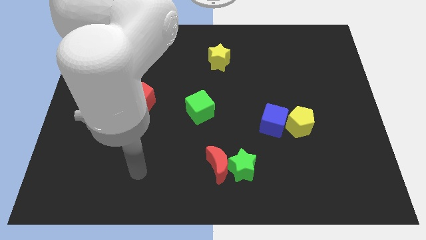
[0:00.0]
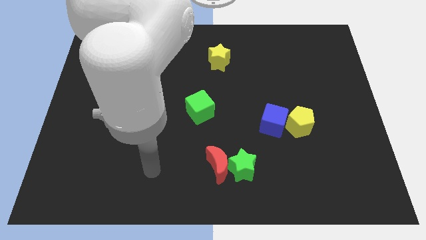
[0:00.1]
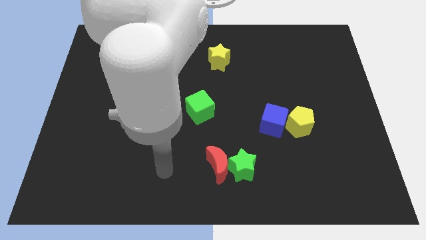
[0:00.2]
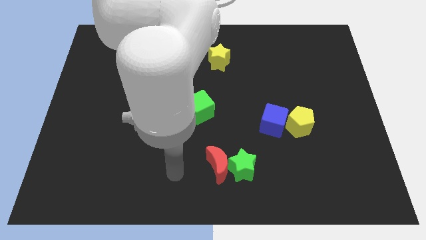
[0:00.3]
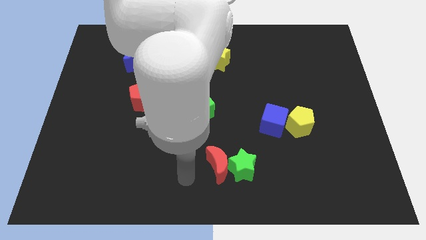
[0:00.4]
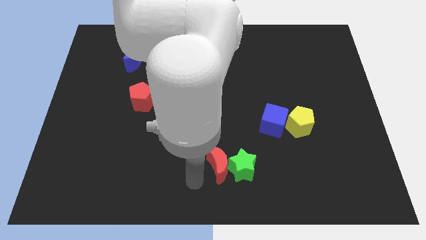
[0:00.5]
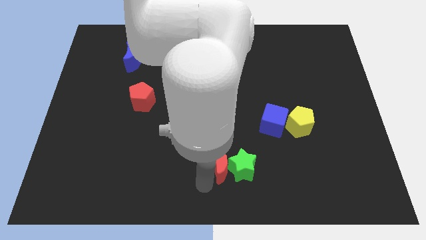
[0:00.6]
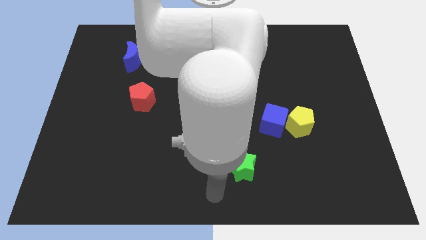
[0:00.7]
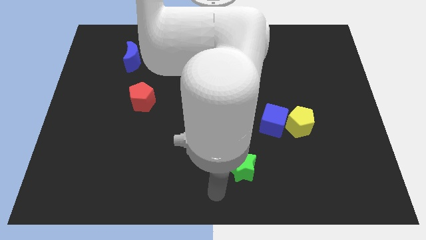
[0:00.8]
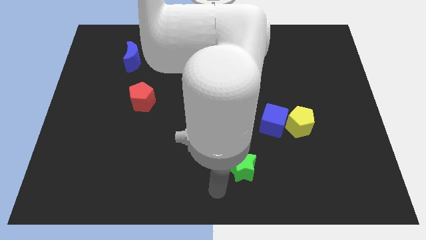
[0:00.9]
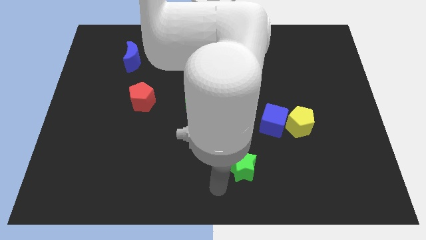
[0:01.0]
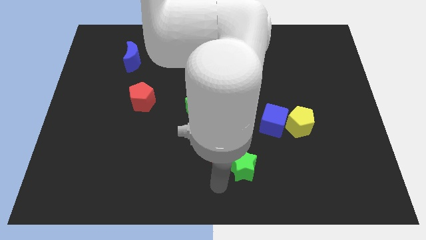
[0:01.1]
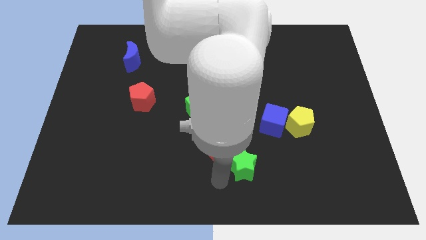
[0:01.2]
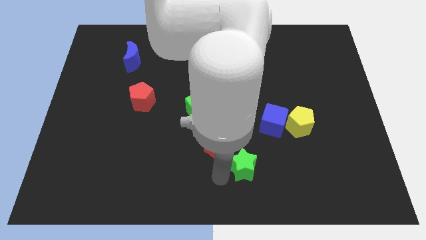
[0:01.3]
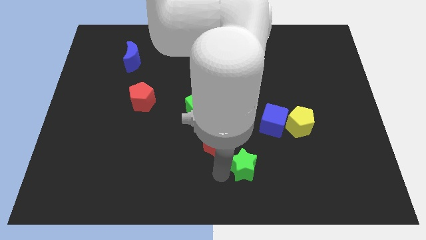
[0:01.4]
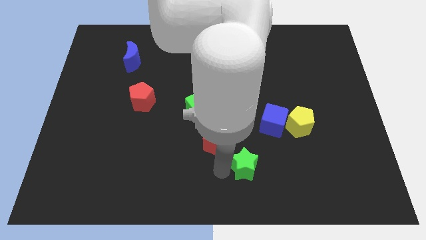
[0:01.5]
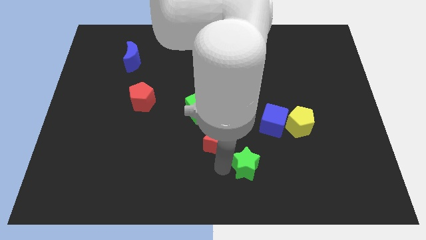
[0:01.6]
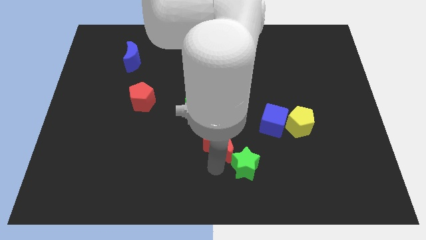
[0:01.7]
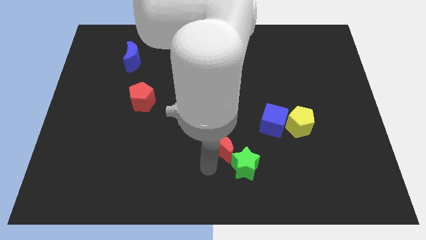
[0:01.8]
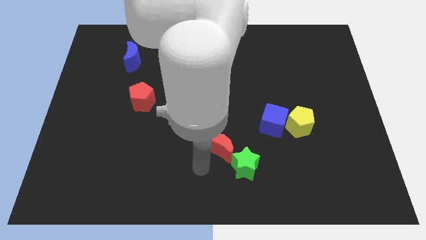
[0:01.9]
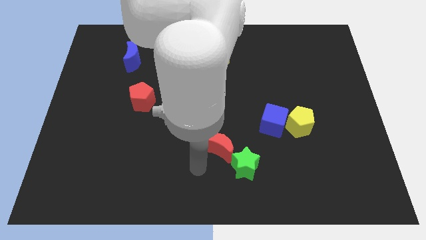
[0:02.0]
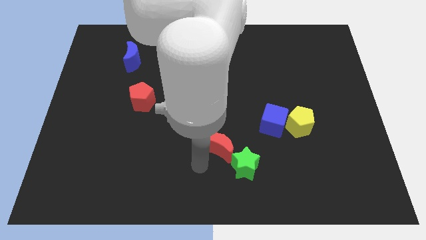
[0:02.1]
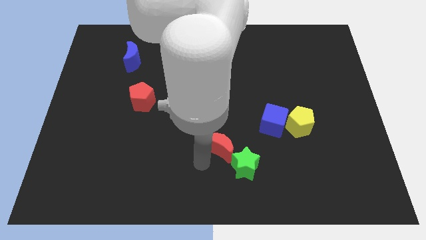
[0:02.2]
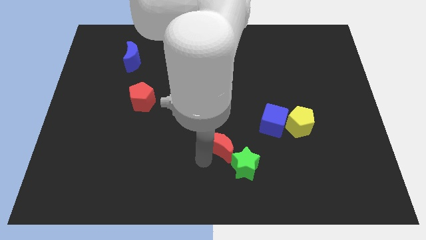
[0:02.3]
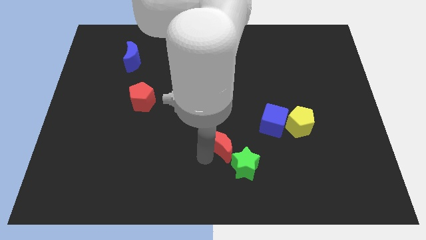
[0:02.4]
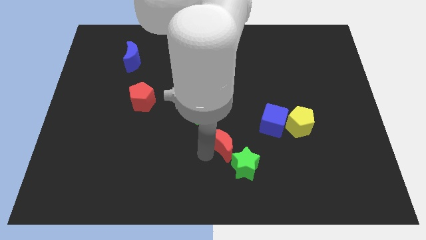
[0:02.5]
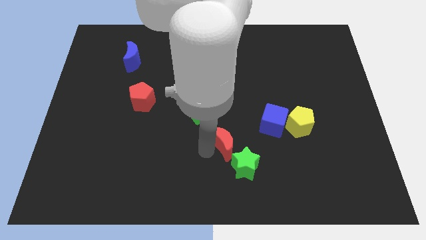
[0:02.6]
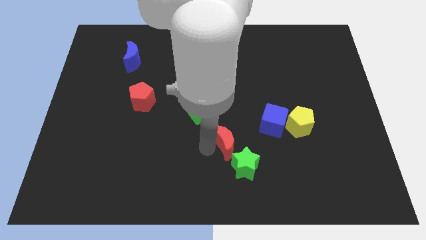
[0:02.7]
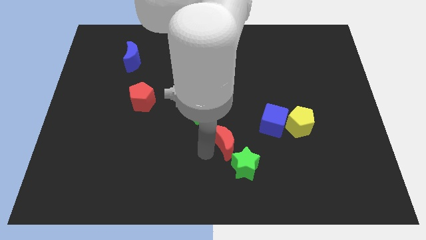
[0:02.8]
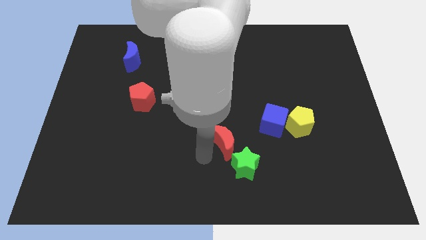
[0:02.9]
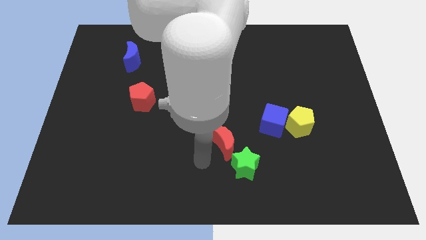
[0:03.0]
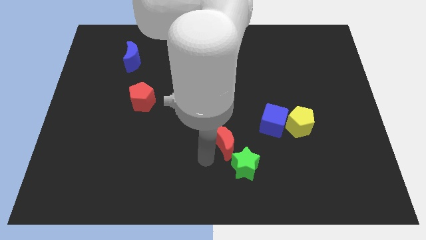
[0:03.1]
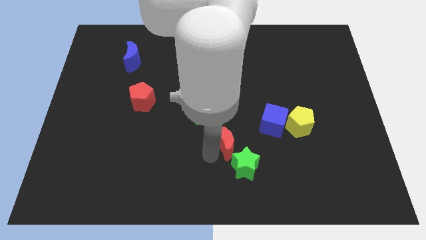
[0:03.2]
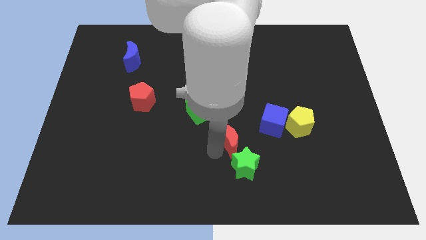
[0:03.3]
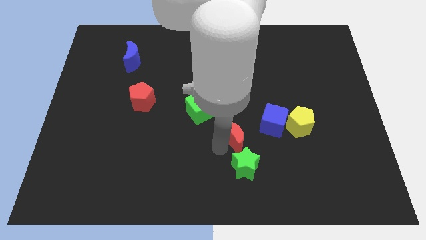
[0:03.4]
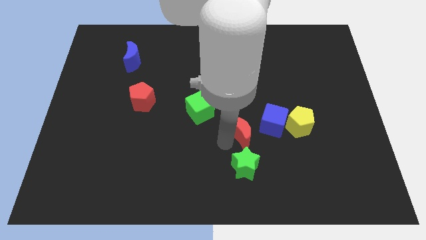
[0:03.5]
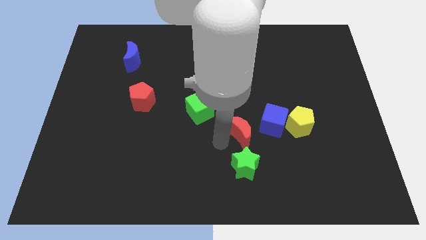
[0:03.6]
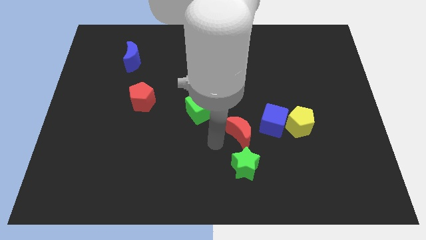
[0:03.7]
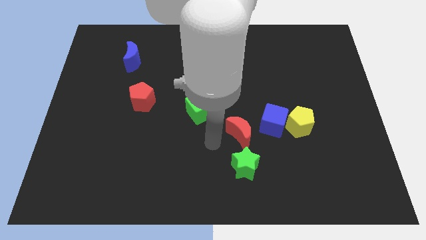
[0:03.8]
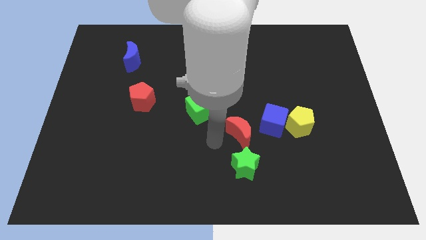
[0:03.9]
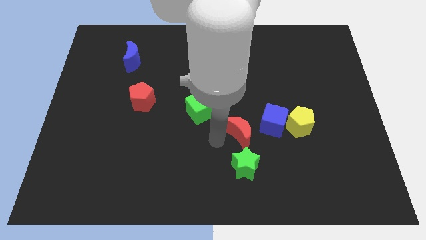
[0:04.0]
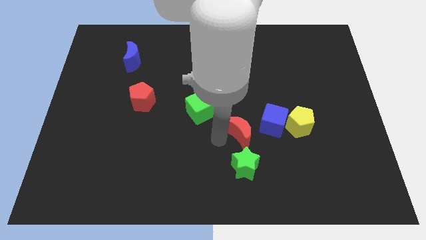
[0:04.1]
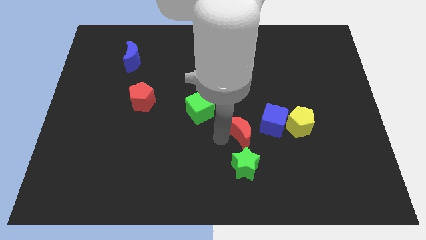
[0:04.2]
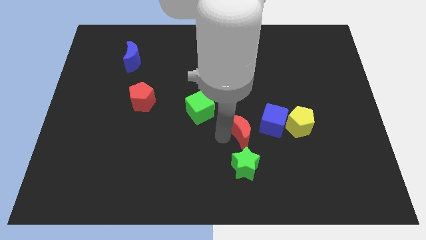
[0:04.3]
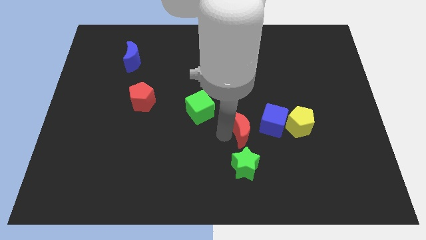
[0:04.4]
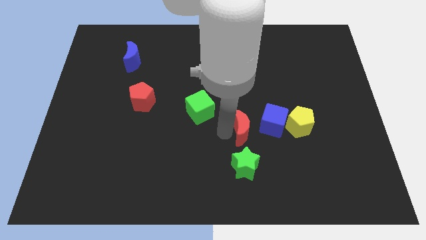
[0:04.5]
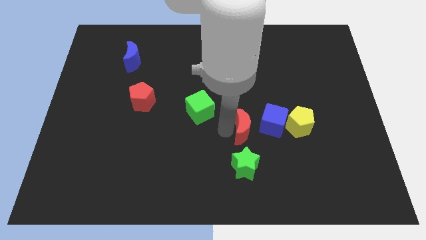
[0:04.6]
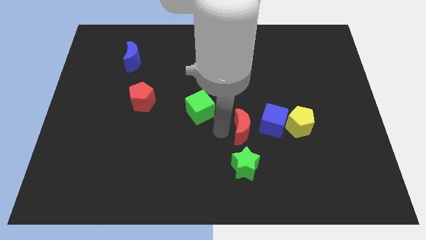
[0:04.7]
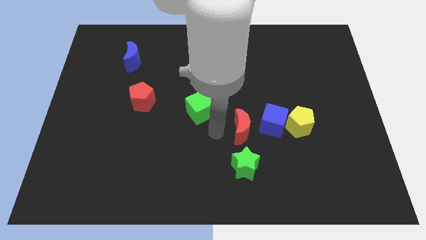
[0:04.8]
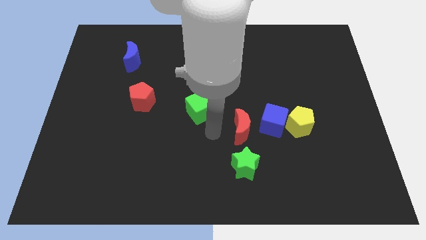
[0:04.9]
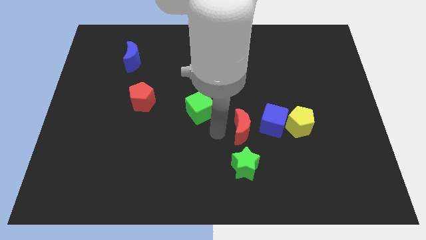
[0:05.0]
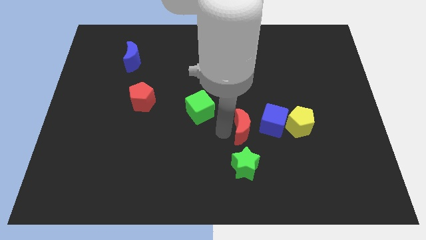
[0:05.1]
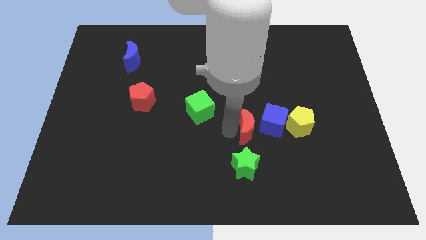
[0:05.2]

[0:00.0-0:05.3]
slide the red moon to the blue cube

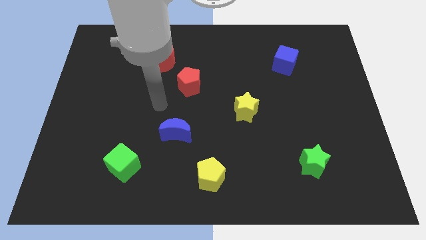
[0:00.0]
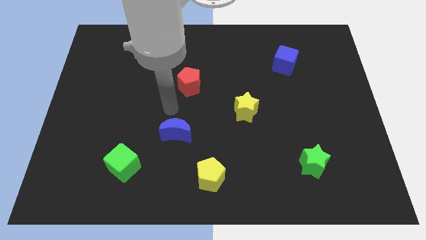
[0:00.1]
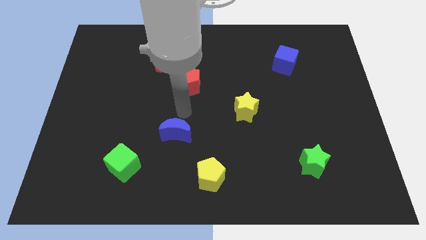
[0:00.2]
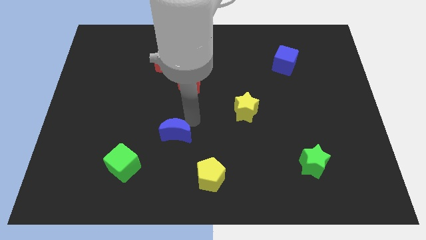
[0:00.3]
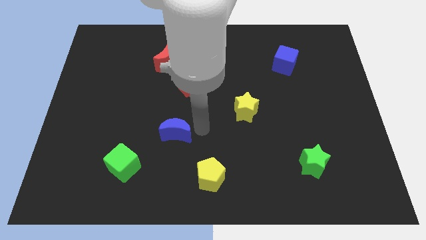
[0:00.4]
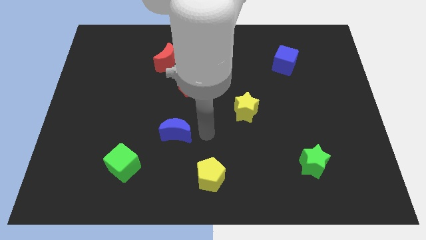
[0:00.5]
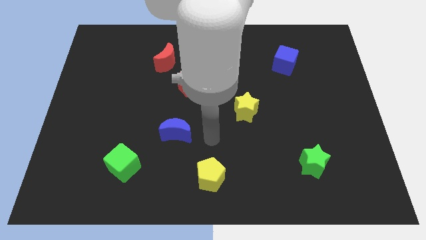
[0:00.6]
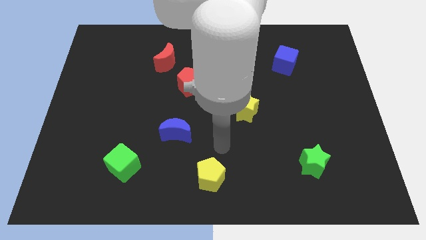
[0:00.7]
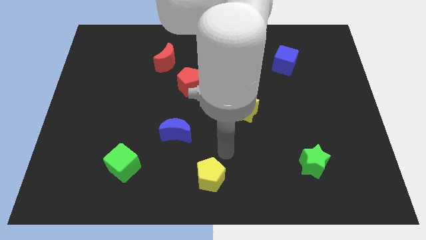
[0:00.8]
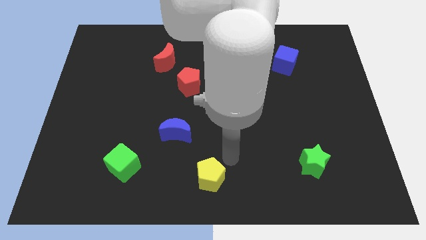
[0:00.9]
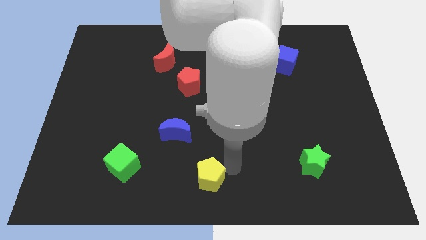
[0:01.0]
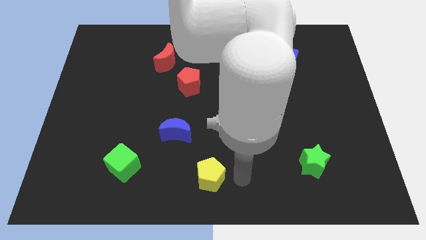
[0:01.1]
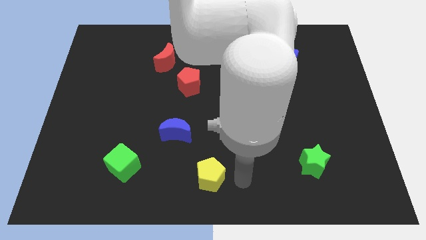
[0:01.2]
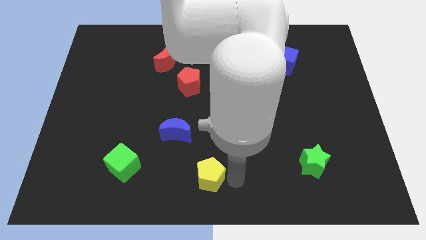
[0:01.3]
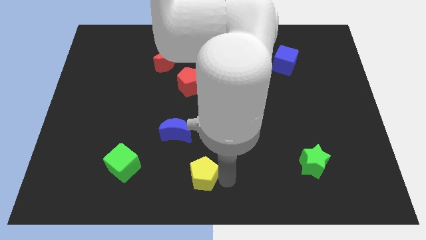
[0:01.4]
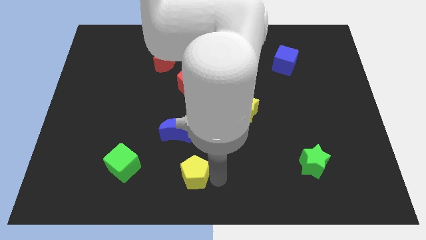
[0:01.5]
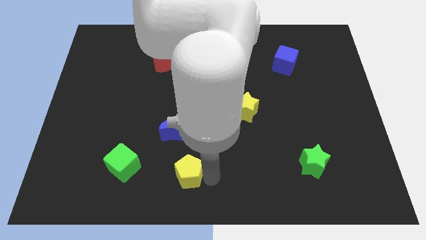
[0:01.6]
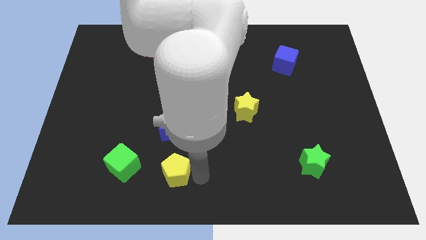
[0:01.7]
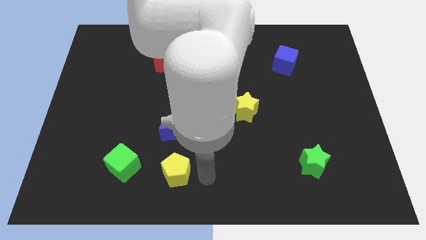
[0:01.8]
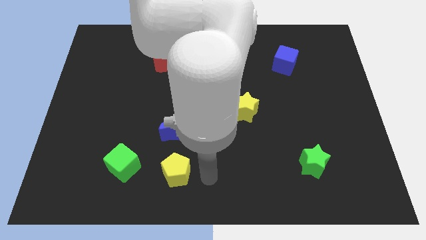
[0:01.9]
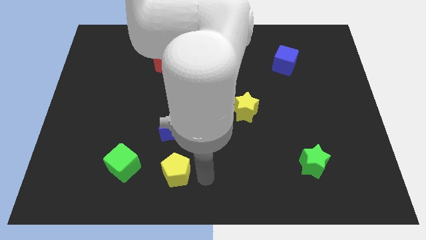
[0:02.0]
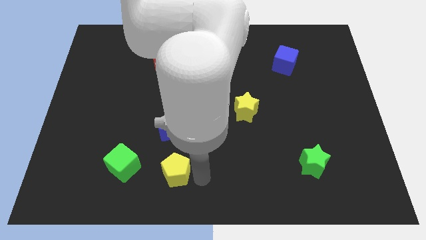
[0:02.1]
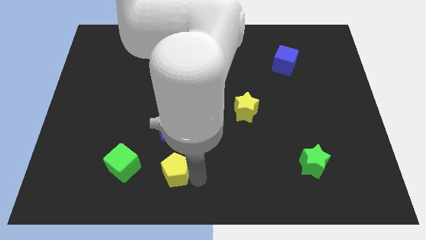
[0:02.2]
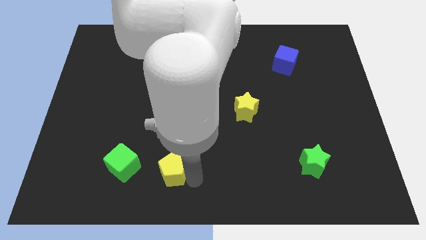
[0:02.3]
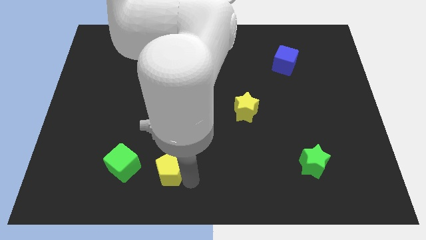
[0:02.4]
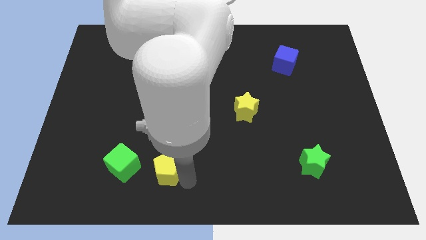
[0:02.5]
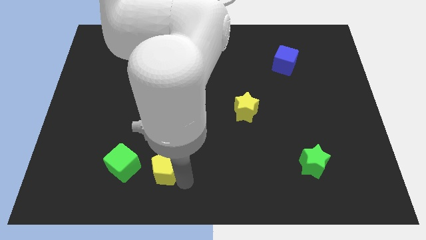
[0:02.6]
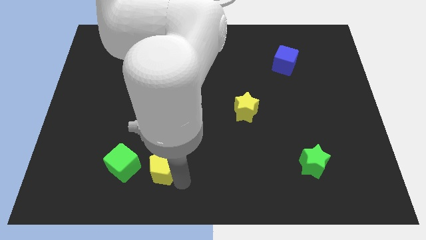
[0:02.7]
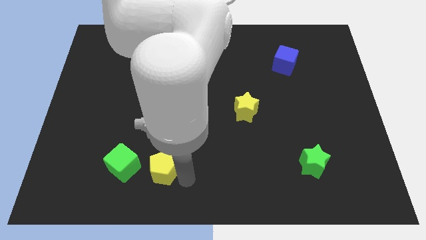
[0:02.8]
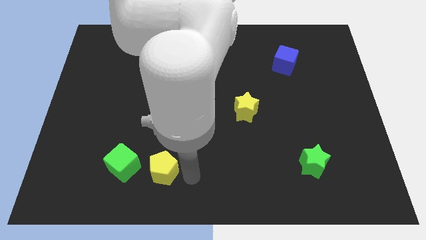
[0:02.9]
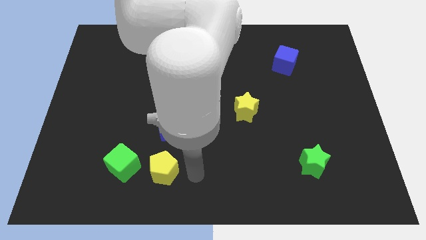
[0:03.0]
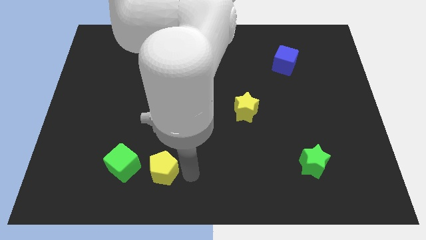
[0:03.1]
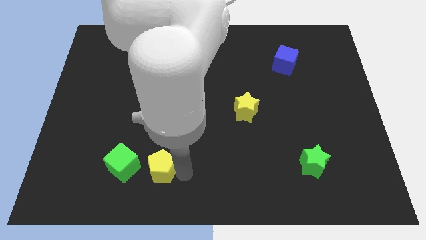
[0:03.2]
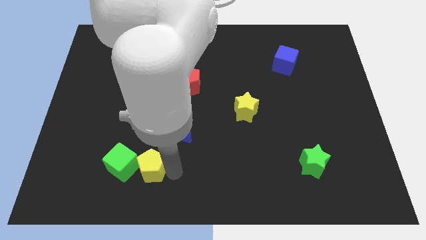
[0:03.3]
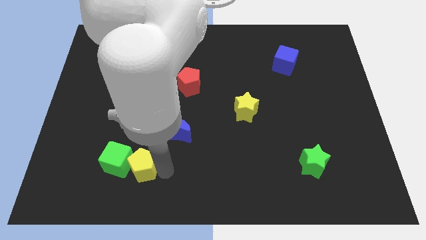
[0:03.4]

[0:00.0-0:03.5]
put the yellow pentagon to the green cube
